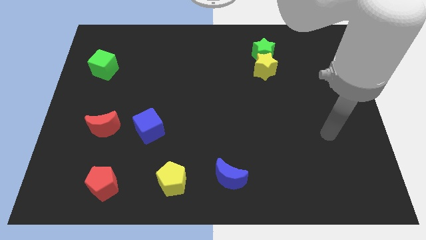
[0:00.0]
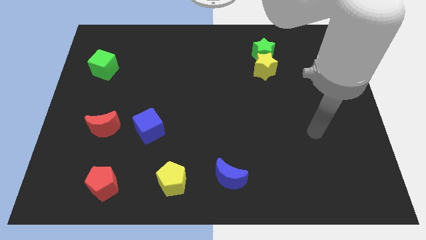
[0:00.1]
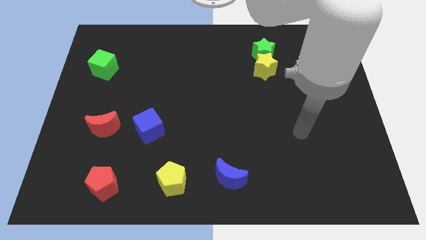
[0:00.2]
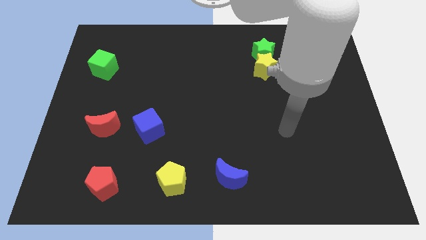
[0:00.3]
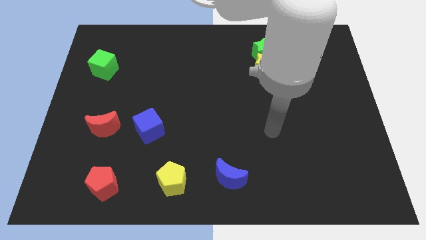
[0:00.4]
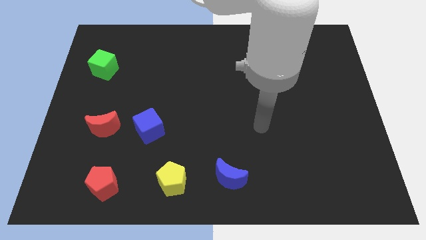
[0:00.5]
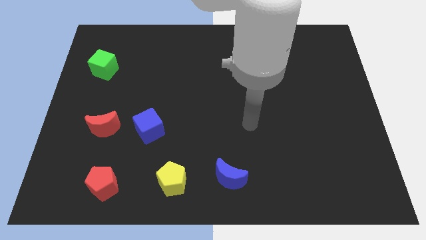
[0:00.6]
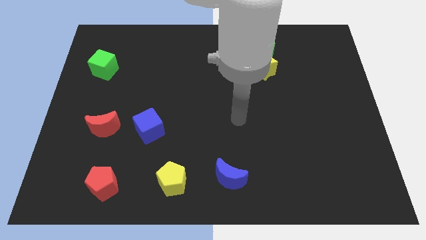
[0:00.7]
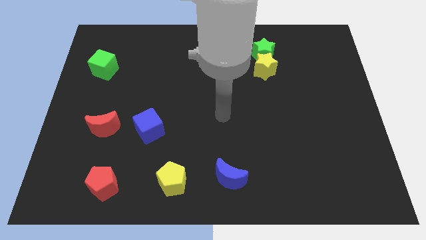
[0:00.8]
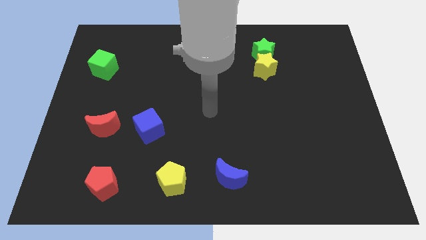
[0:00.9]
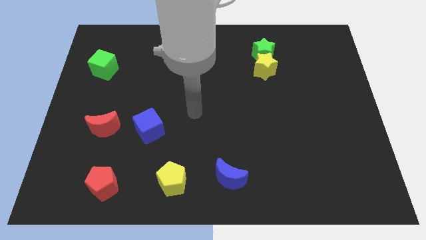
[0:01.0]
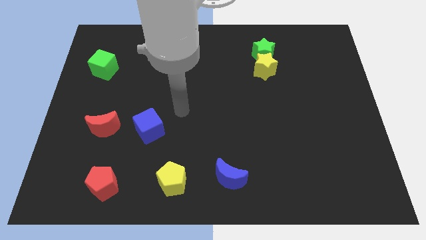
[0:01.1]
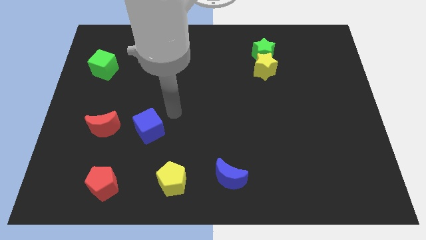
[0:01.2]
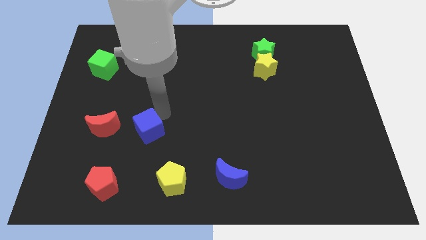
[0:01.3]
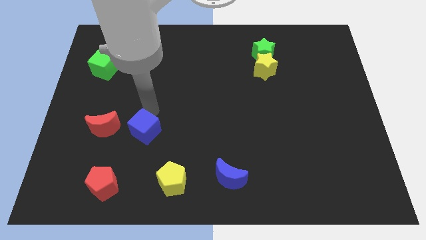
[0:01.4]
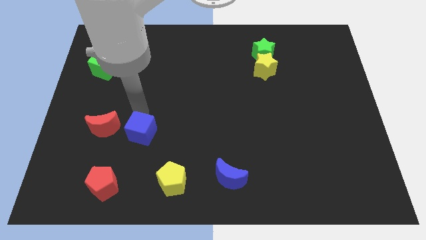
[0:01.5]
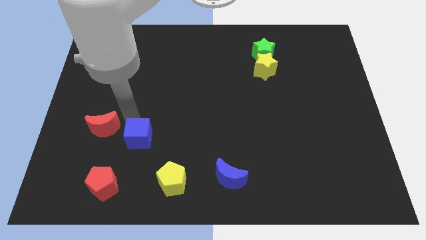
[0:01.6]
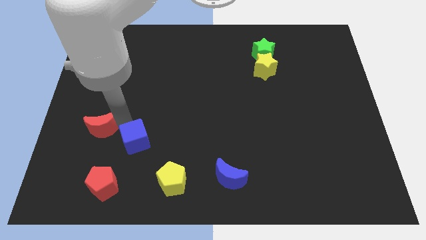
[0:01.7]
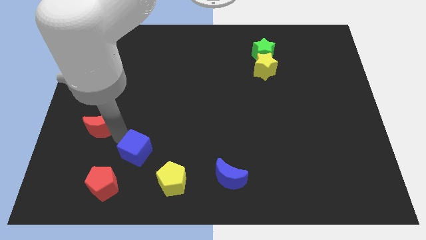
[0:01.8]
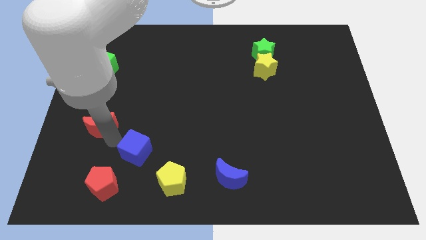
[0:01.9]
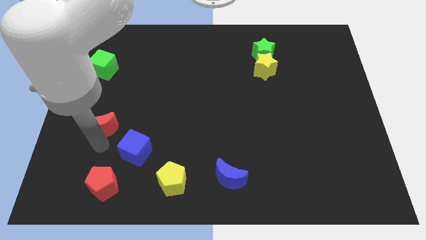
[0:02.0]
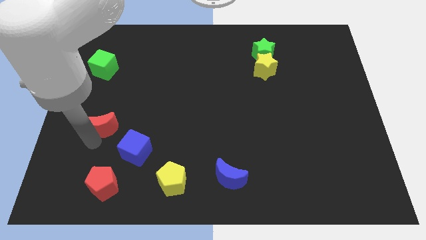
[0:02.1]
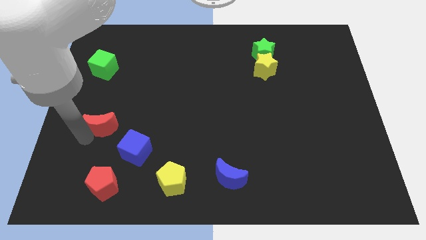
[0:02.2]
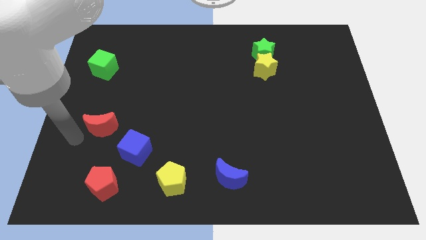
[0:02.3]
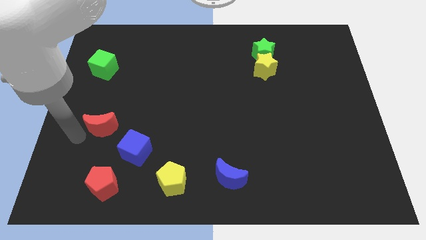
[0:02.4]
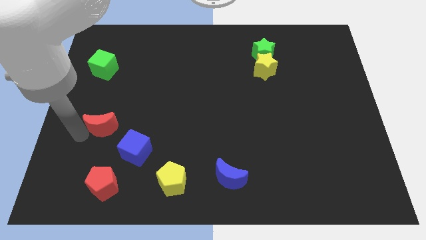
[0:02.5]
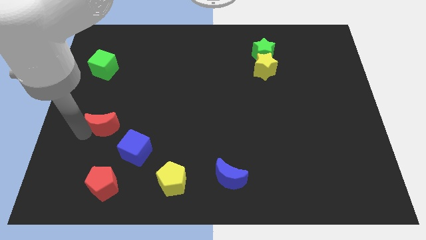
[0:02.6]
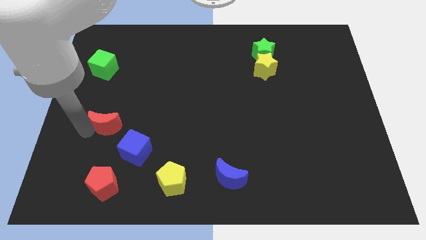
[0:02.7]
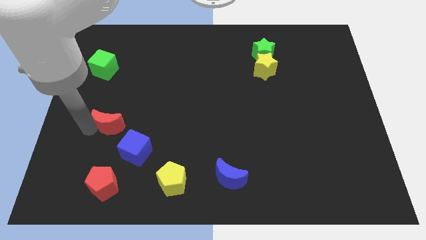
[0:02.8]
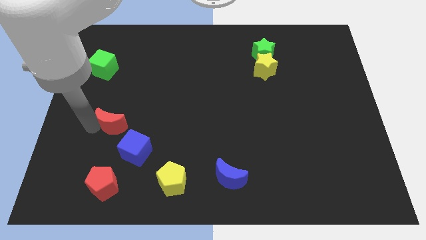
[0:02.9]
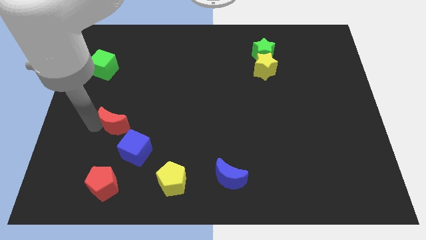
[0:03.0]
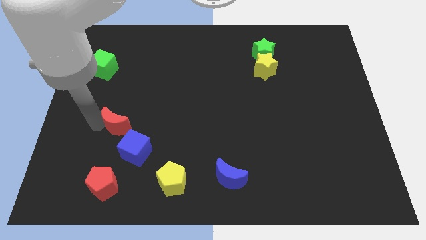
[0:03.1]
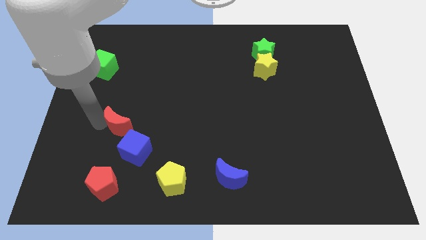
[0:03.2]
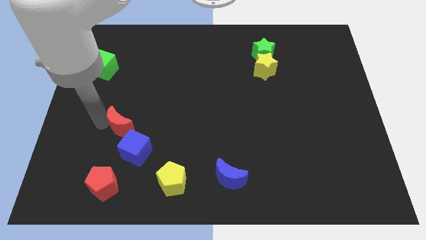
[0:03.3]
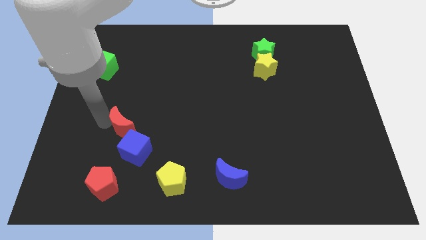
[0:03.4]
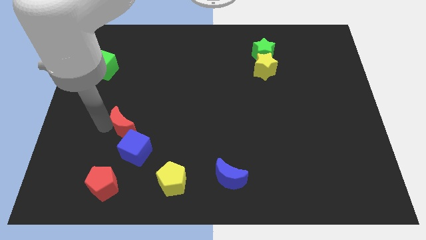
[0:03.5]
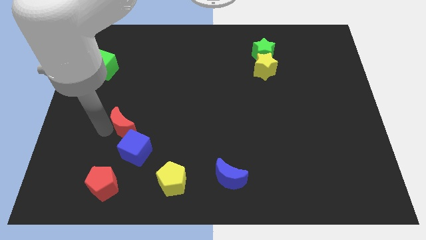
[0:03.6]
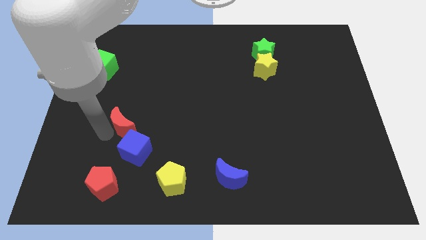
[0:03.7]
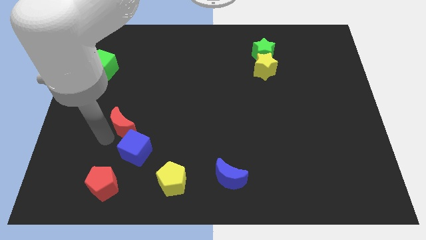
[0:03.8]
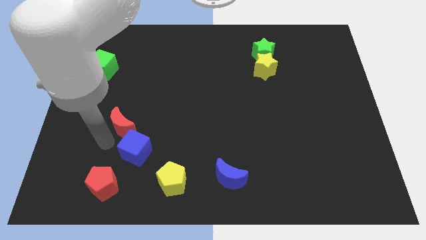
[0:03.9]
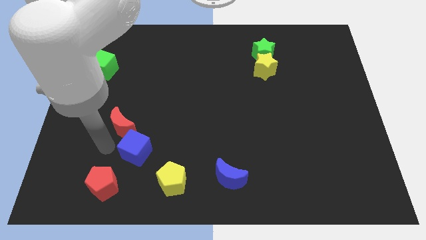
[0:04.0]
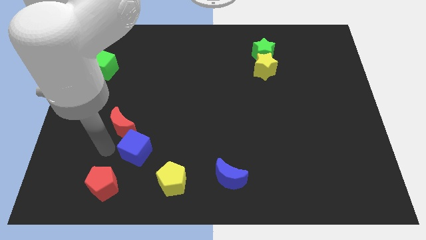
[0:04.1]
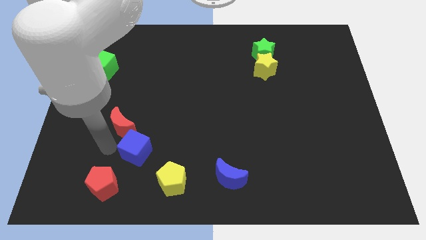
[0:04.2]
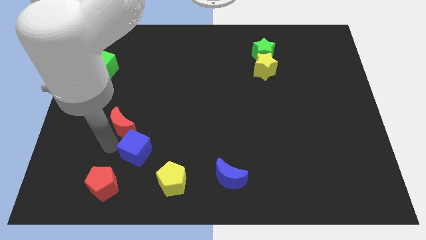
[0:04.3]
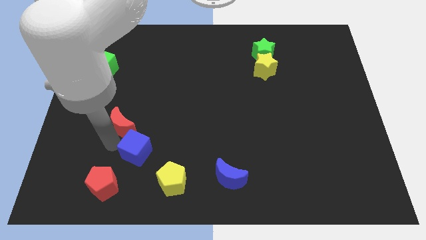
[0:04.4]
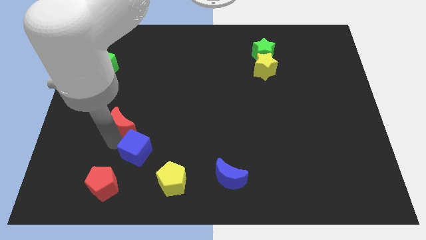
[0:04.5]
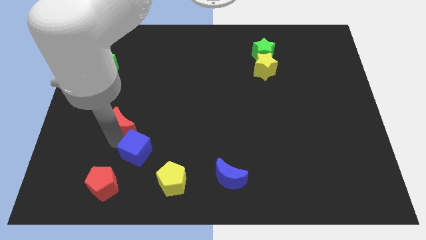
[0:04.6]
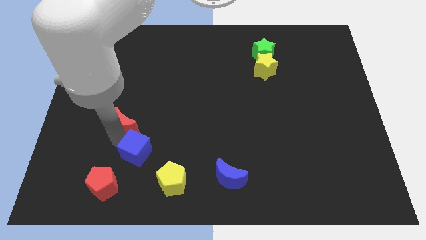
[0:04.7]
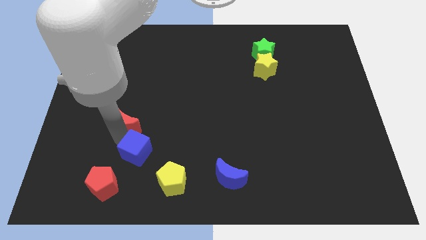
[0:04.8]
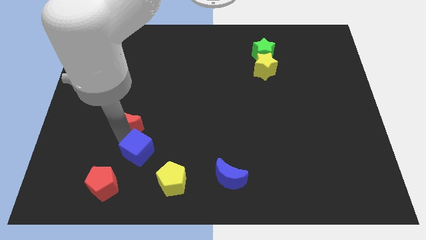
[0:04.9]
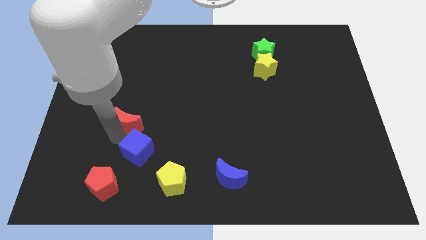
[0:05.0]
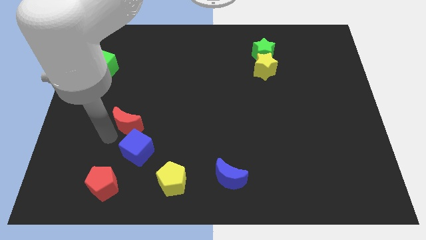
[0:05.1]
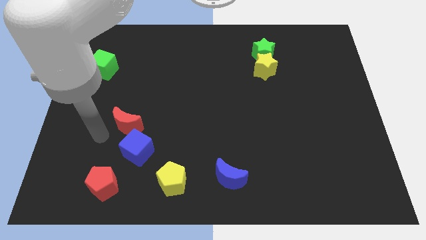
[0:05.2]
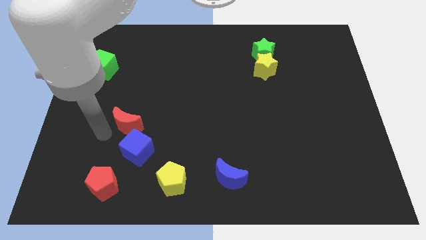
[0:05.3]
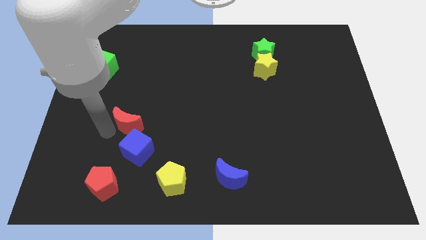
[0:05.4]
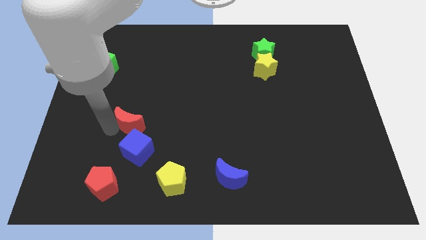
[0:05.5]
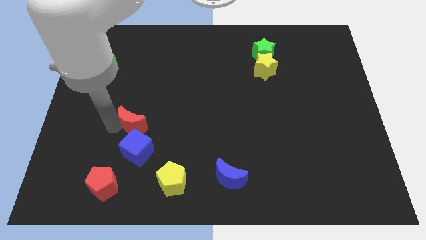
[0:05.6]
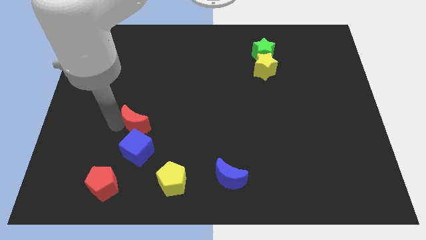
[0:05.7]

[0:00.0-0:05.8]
move the red moon to the right slightly

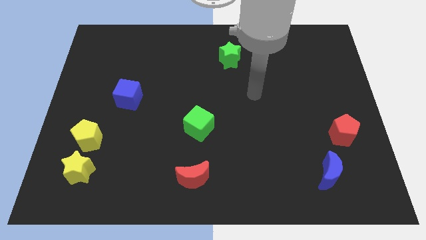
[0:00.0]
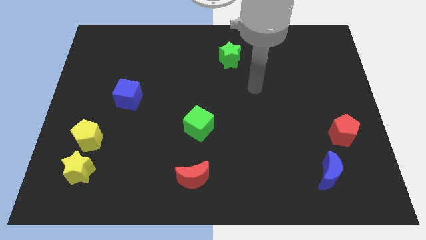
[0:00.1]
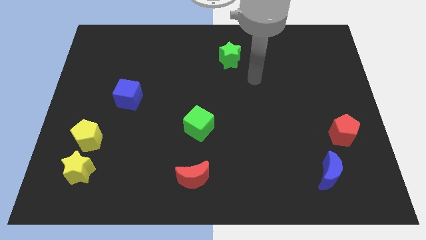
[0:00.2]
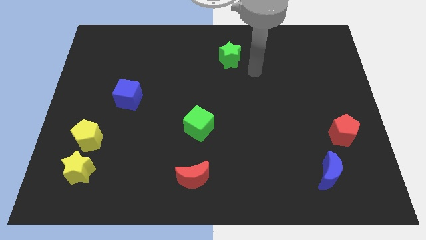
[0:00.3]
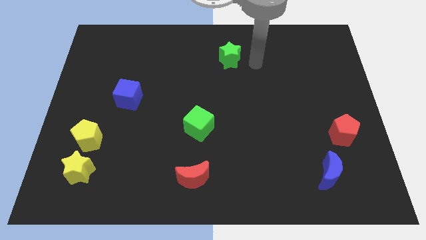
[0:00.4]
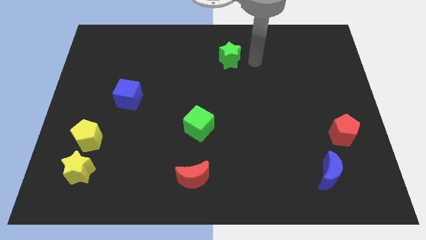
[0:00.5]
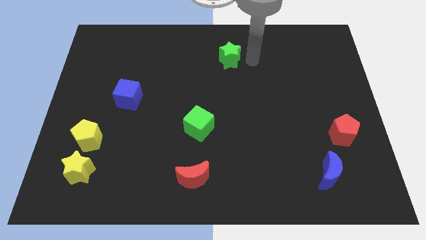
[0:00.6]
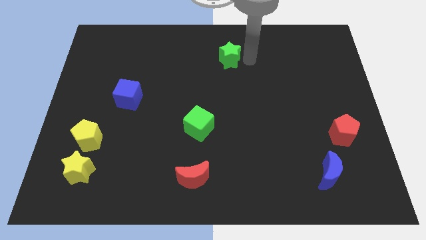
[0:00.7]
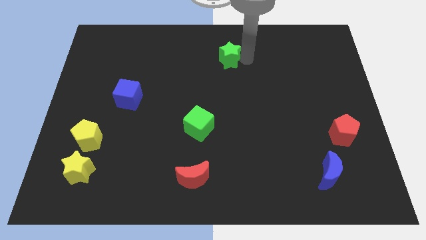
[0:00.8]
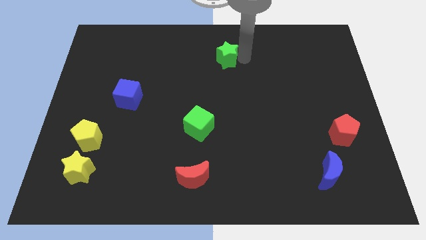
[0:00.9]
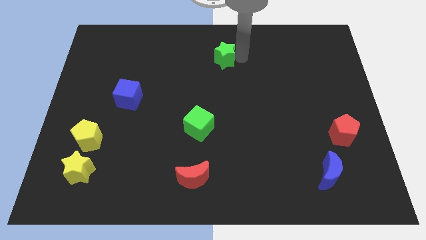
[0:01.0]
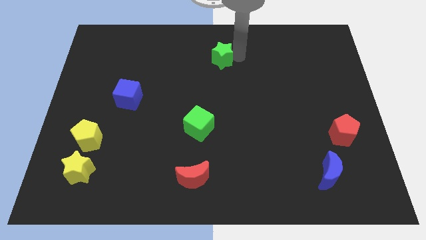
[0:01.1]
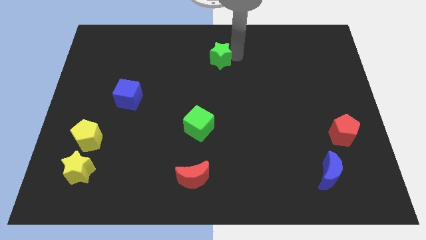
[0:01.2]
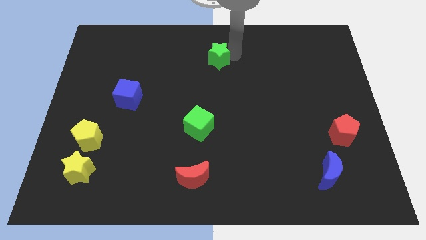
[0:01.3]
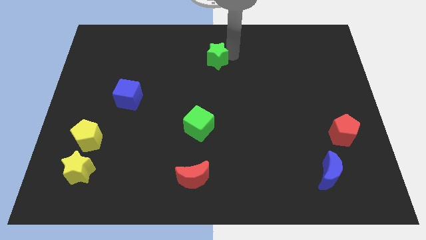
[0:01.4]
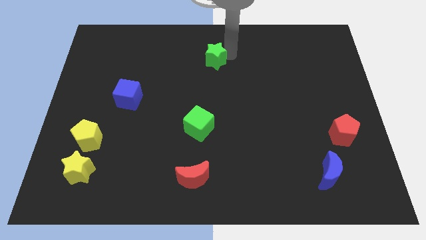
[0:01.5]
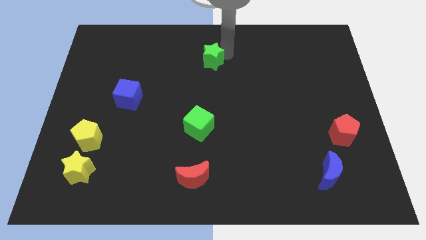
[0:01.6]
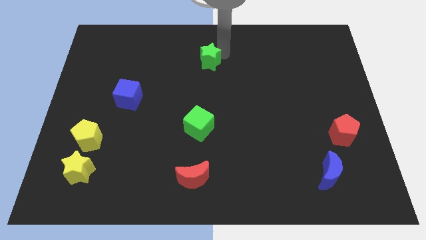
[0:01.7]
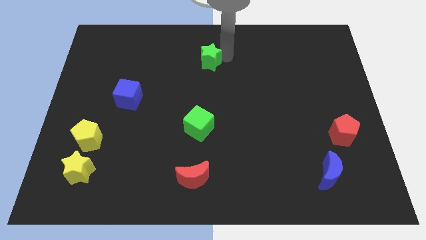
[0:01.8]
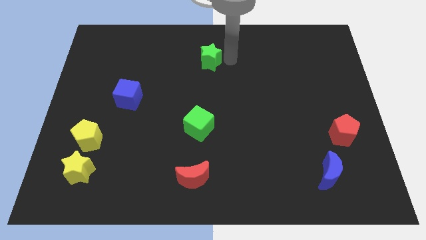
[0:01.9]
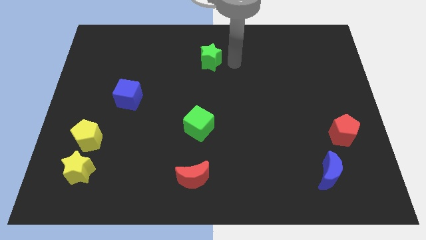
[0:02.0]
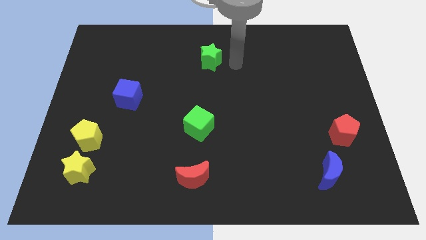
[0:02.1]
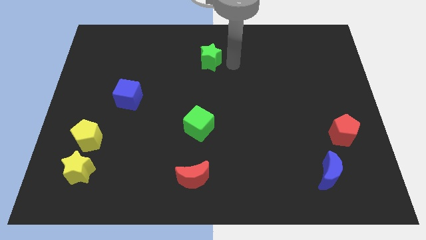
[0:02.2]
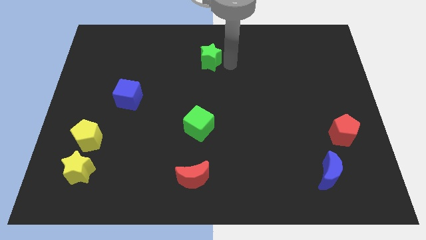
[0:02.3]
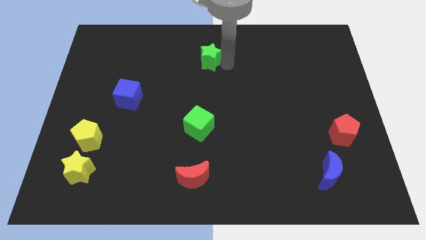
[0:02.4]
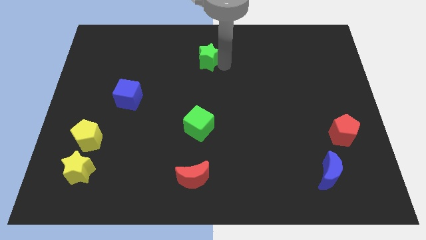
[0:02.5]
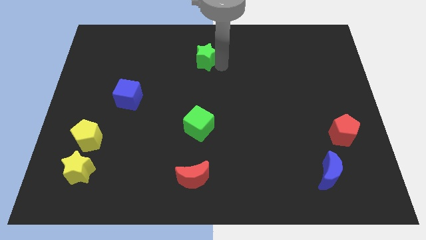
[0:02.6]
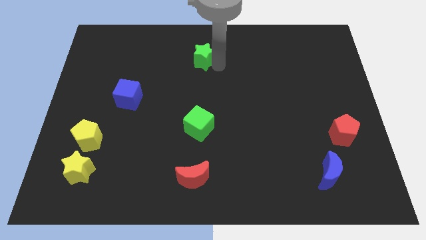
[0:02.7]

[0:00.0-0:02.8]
move the green star to the left somewhat
